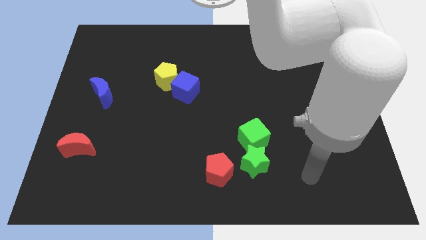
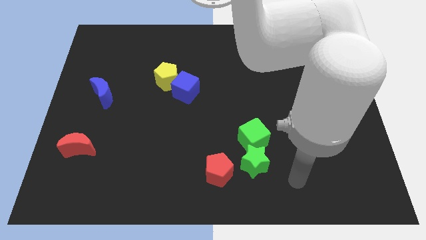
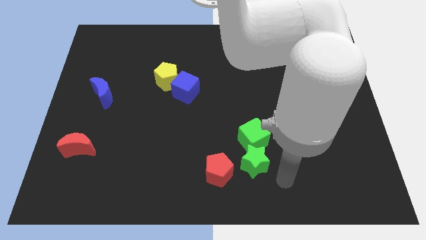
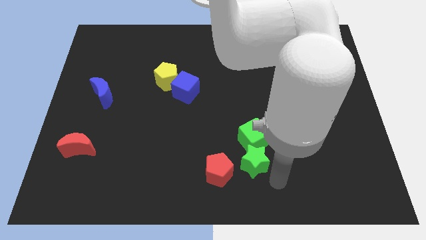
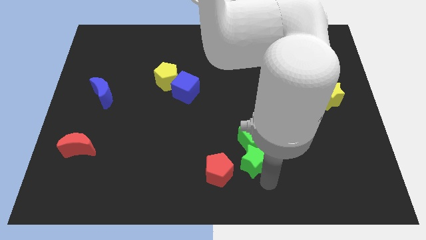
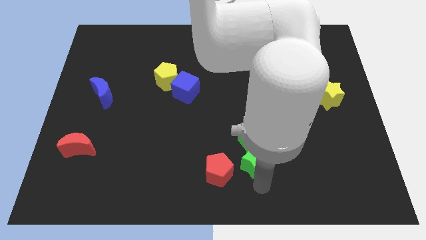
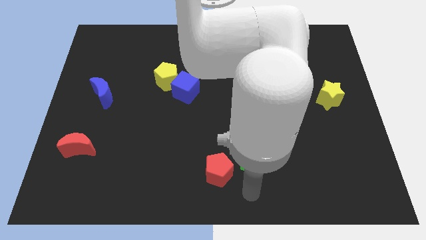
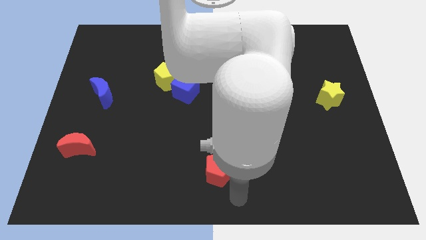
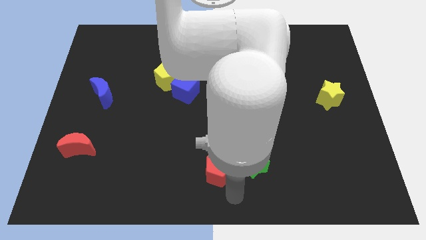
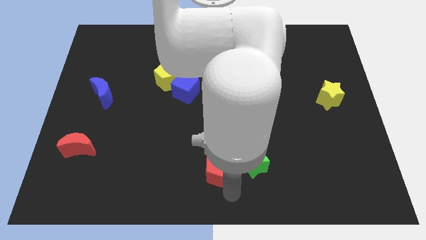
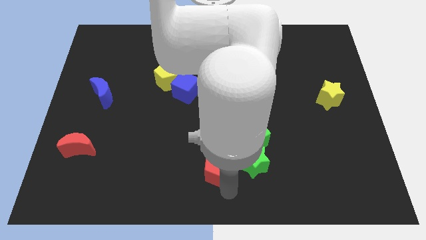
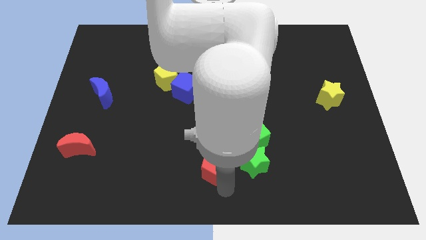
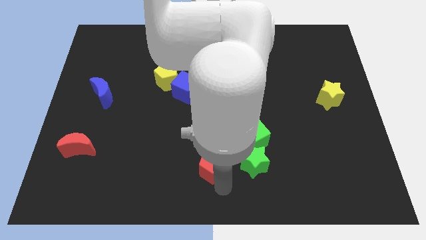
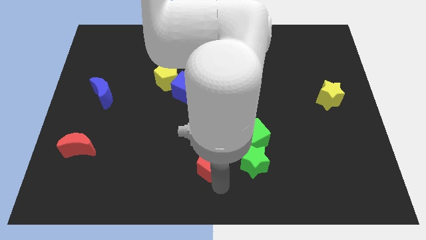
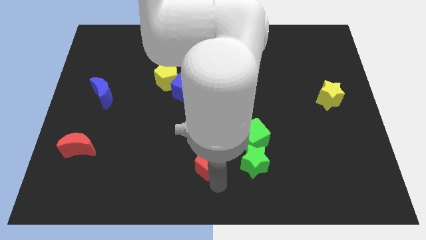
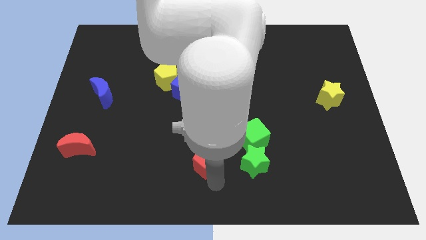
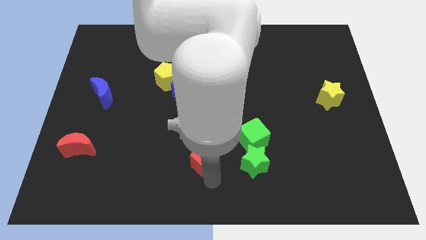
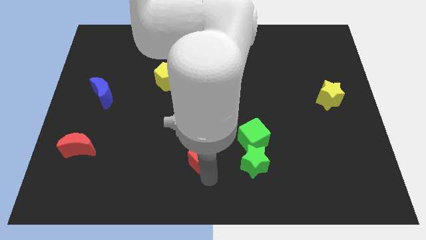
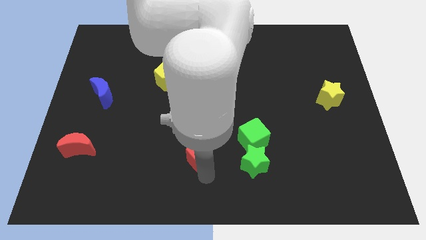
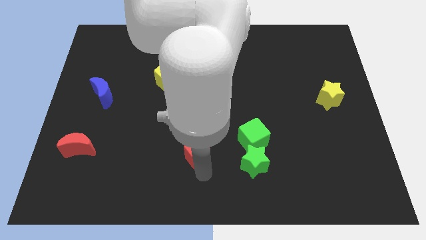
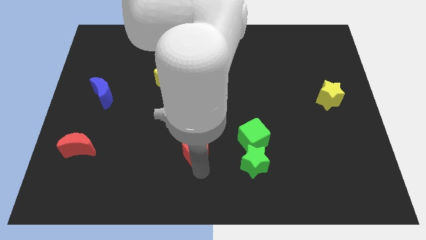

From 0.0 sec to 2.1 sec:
move the red pentagon diagonally upwards and left somewhat

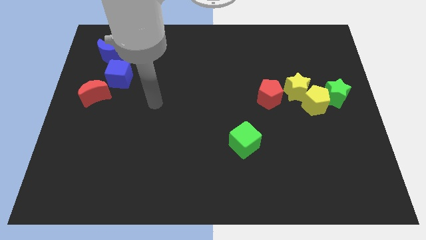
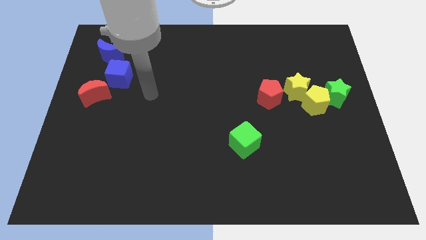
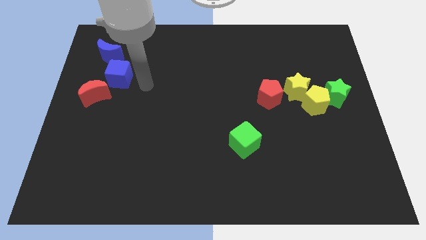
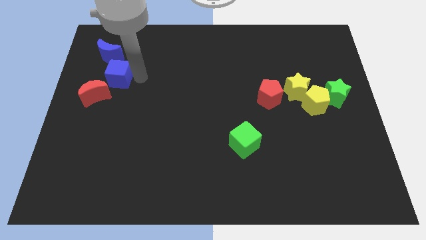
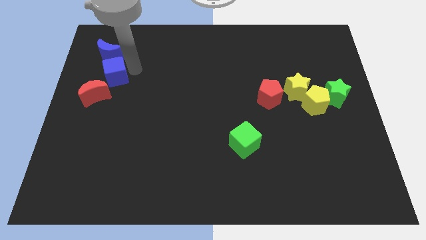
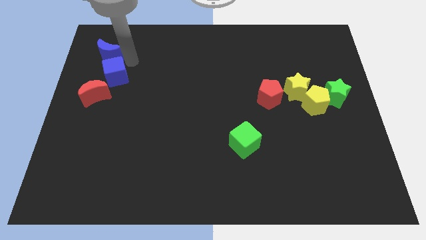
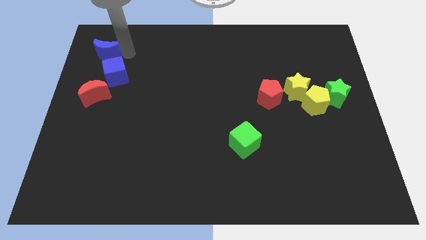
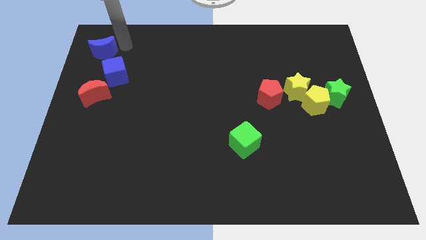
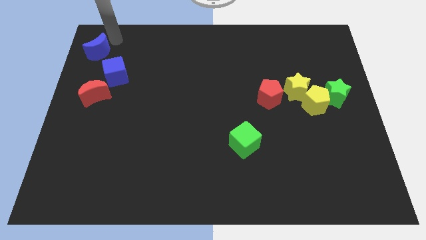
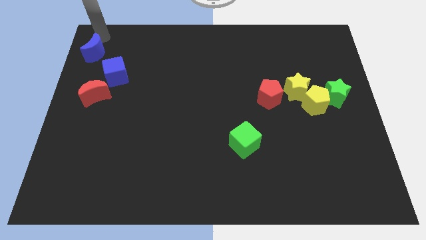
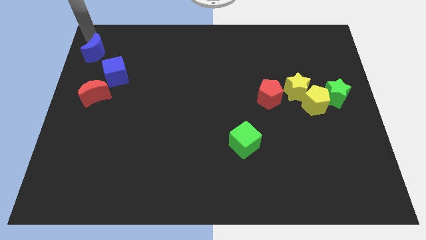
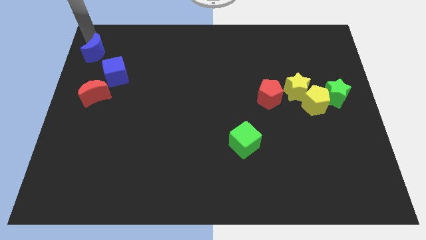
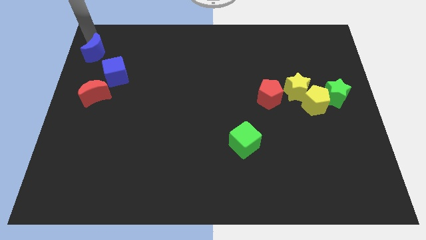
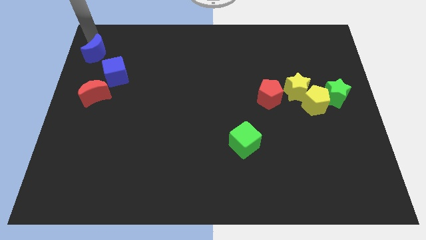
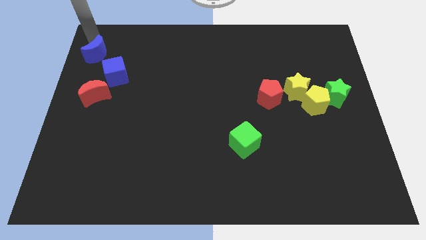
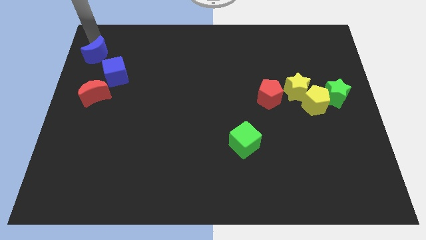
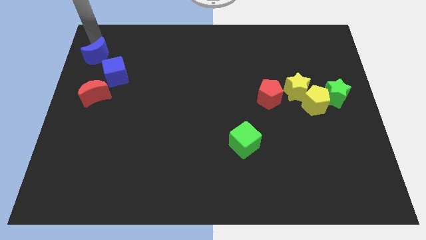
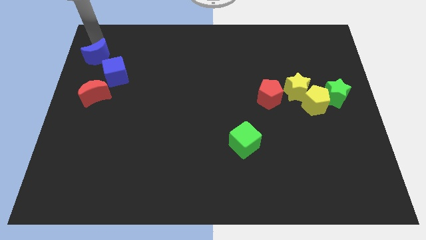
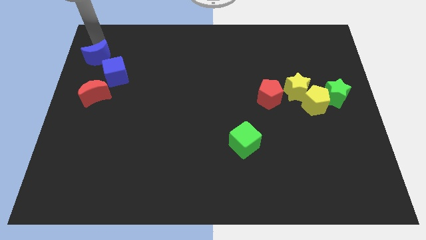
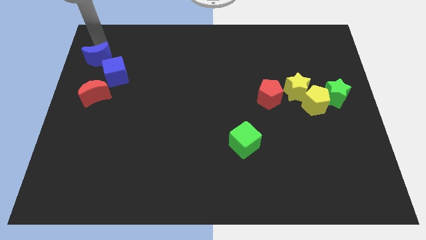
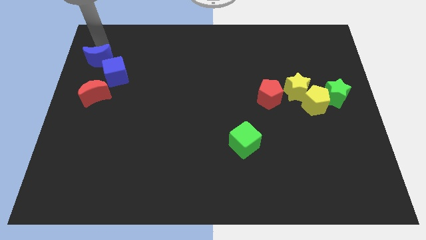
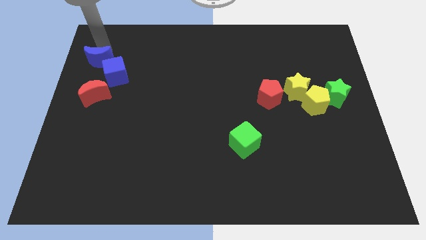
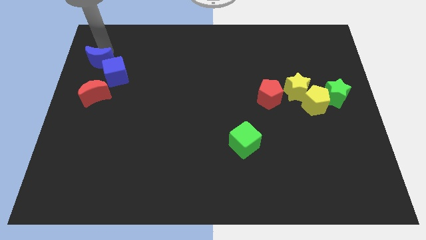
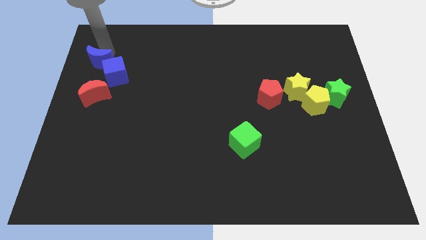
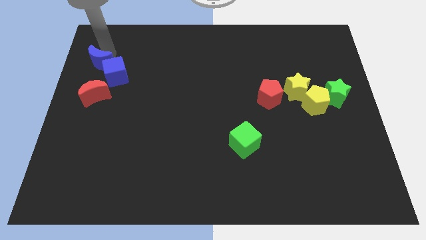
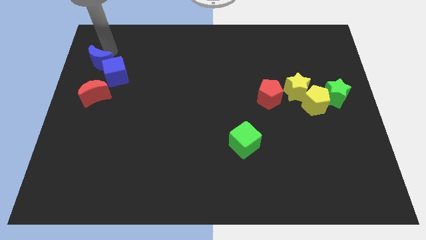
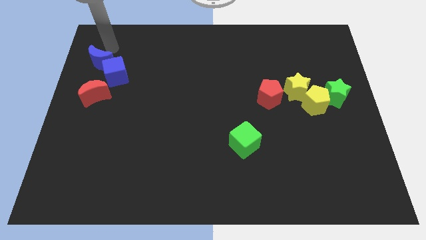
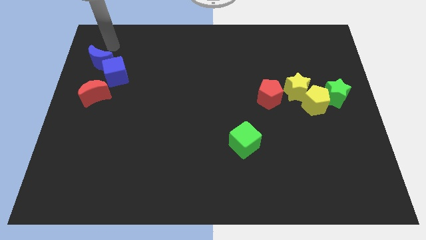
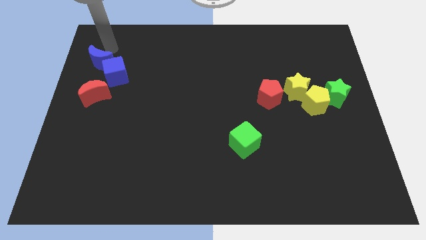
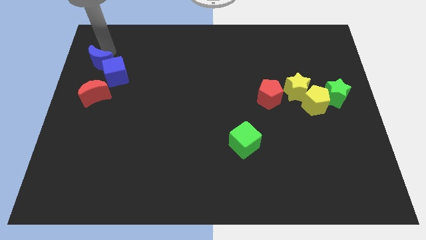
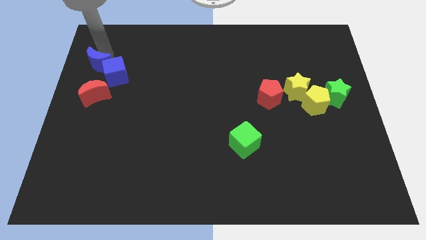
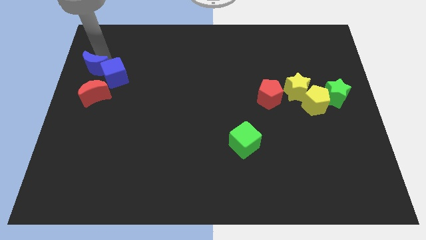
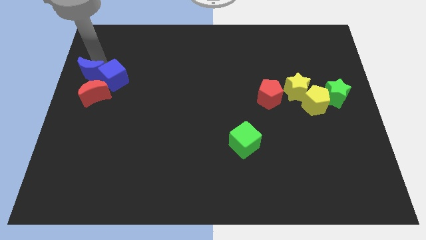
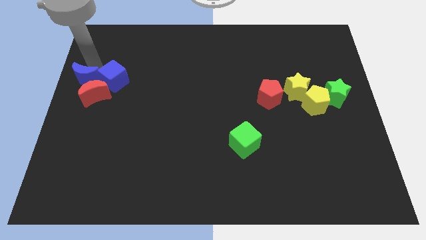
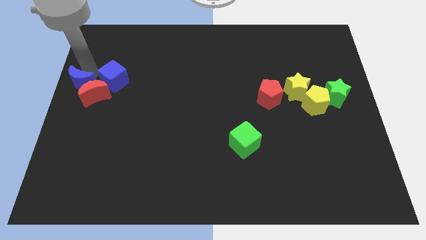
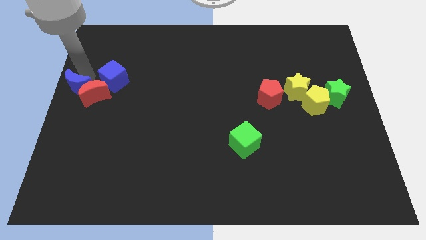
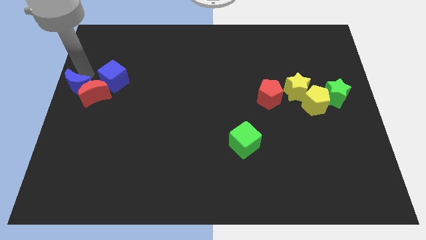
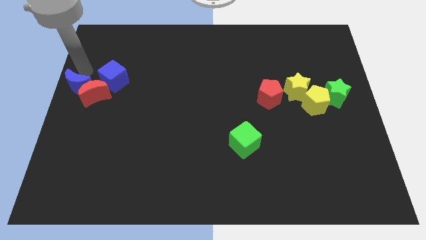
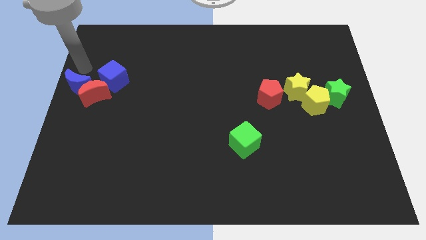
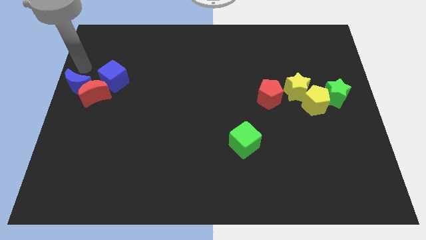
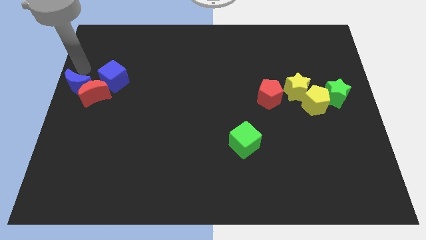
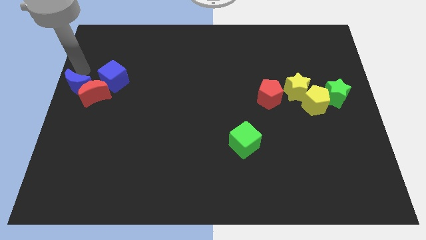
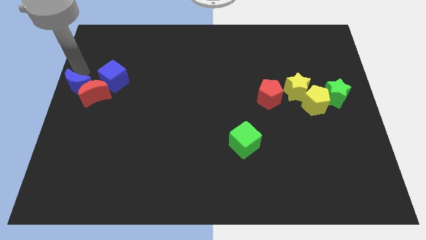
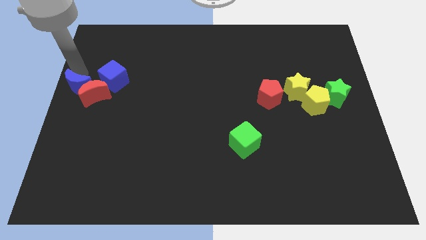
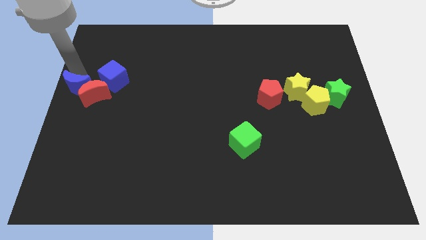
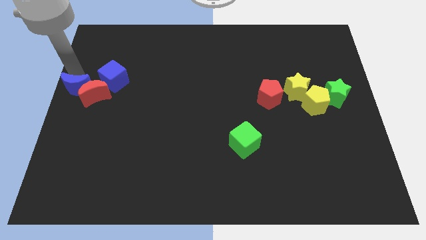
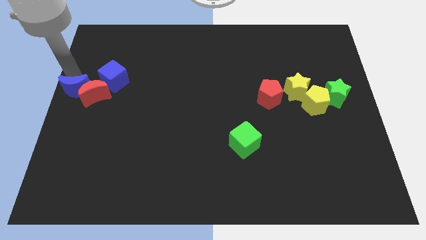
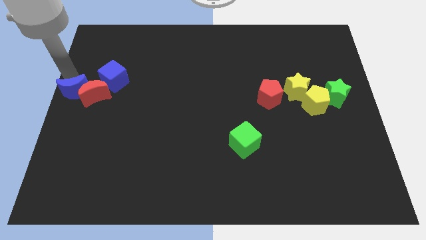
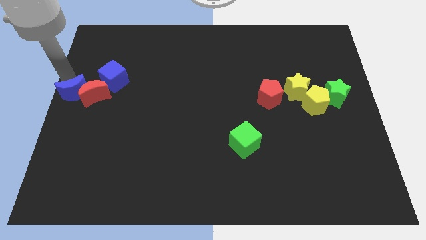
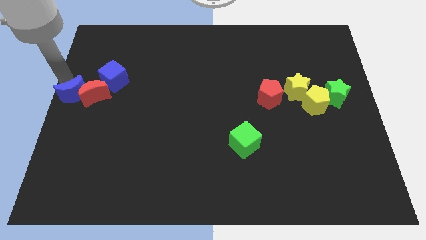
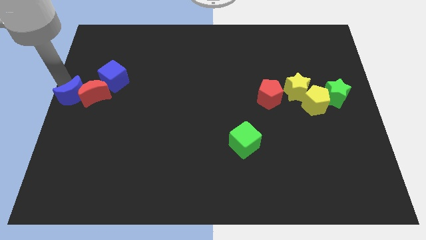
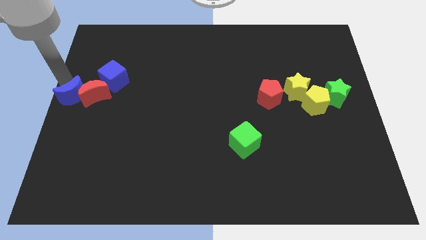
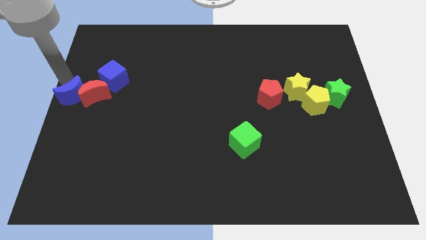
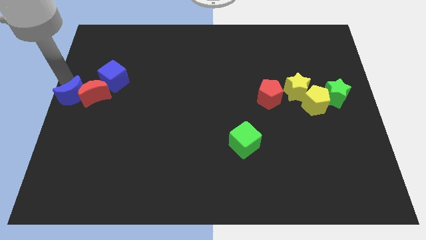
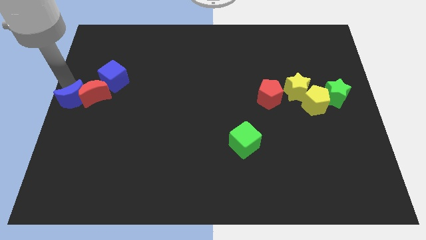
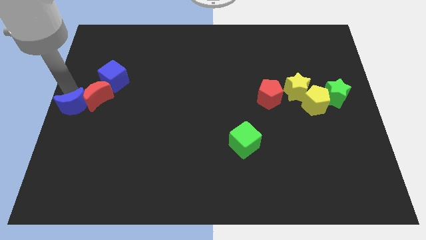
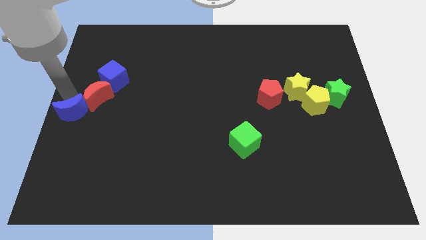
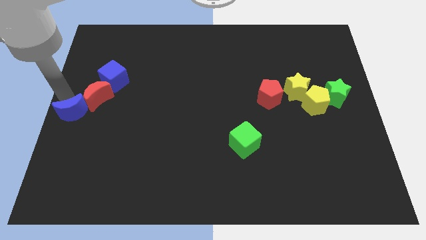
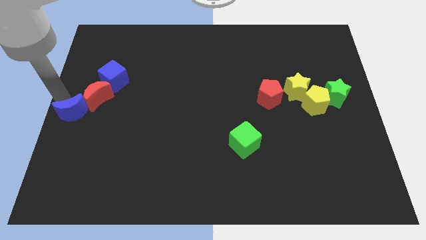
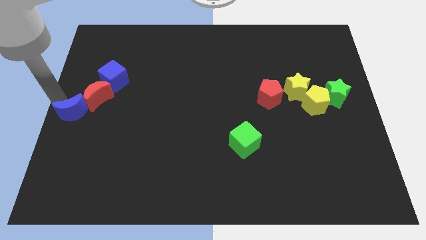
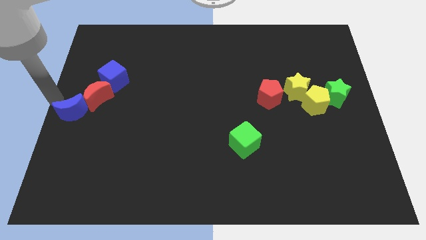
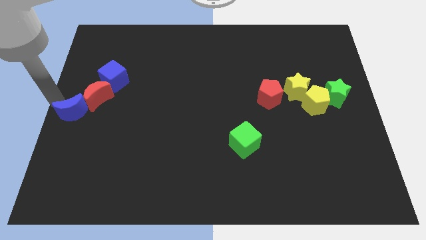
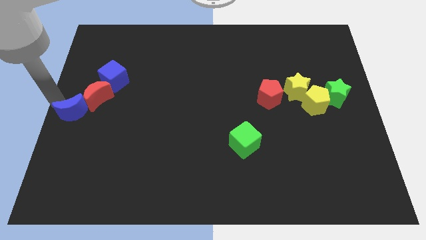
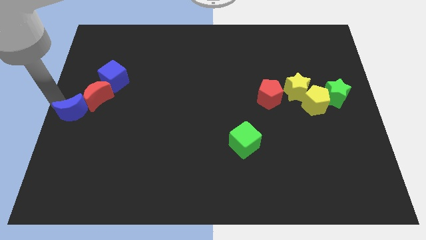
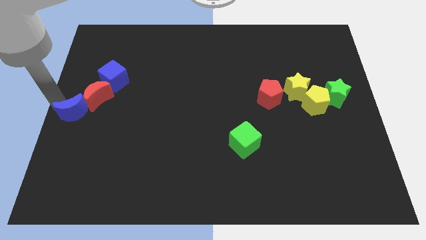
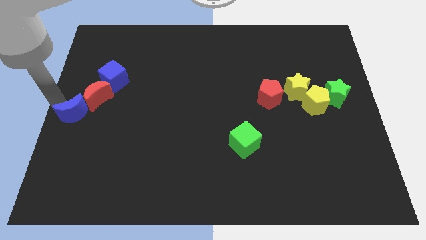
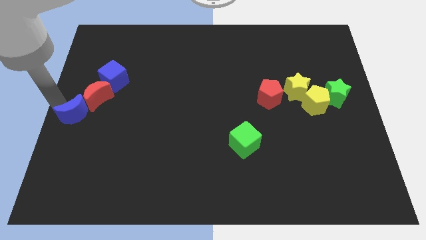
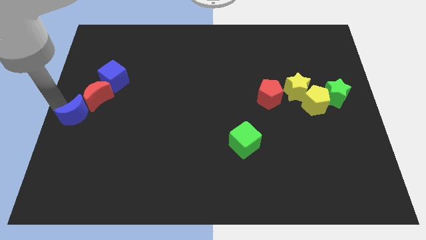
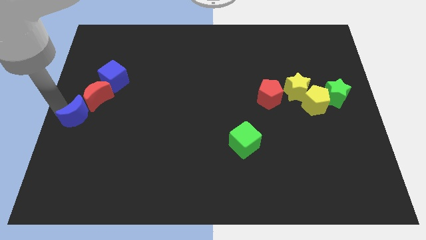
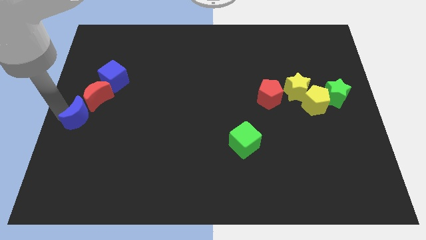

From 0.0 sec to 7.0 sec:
push the blue moon downwards
